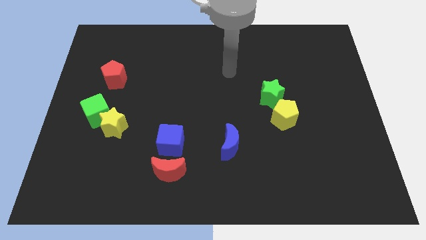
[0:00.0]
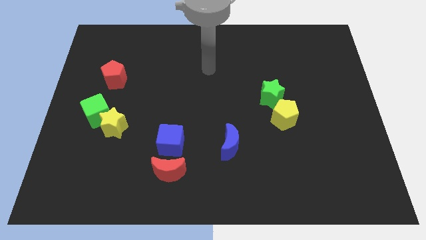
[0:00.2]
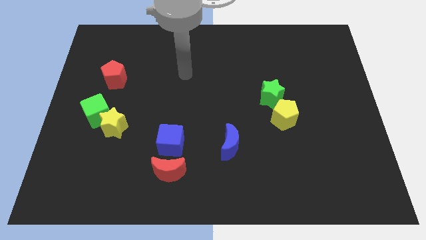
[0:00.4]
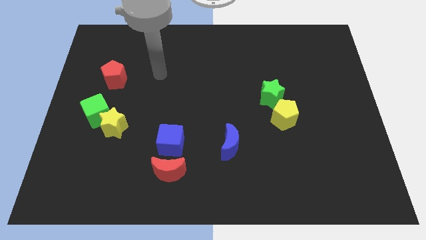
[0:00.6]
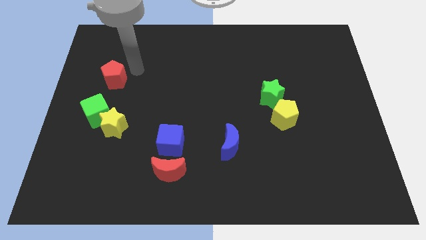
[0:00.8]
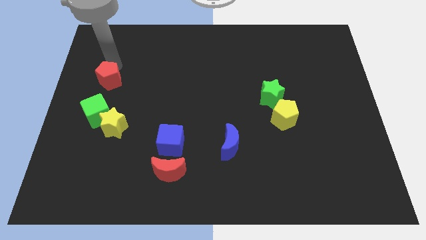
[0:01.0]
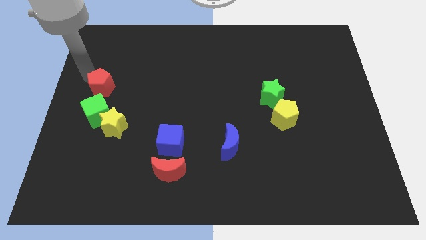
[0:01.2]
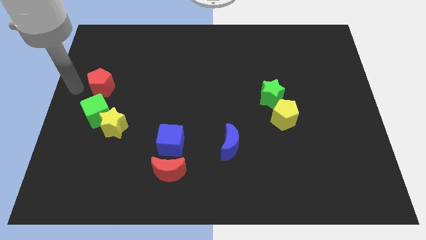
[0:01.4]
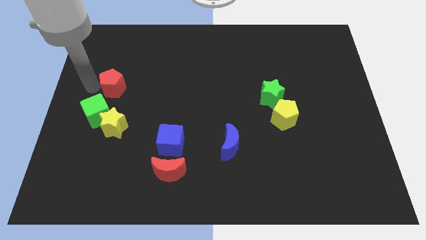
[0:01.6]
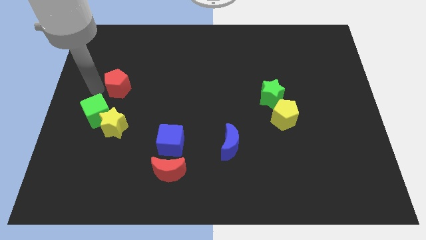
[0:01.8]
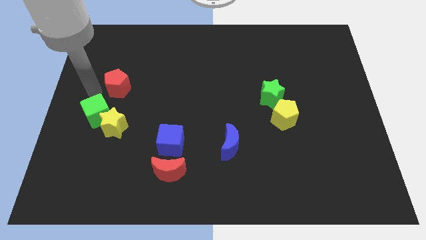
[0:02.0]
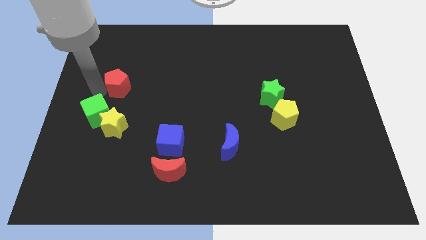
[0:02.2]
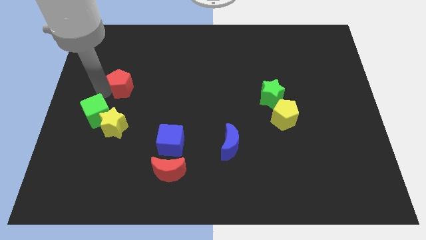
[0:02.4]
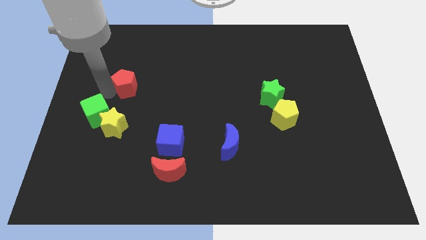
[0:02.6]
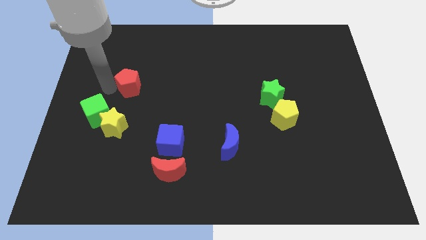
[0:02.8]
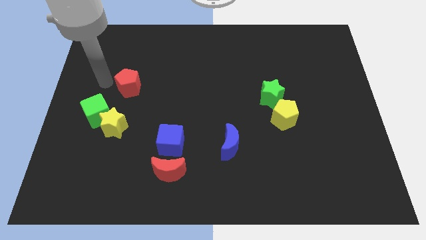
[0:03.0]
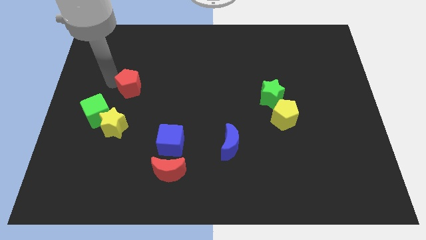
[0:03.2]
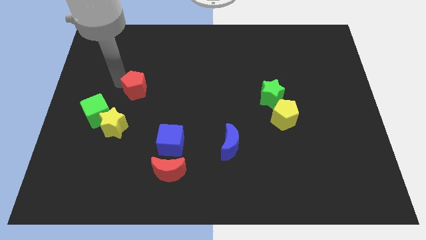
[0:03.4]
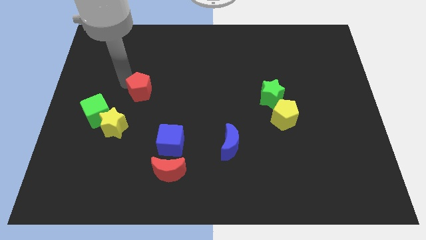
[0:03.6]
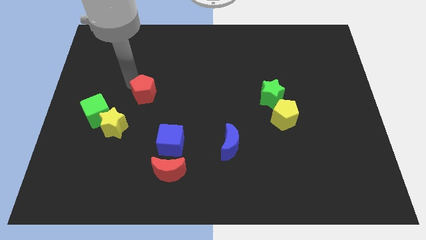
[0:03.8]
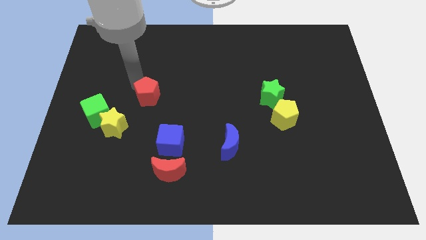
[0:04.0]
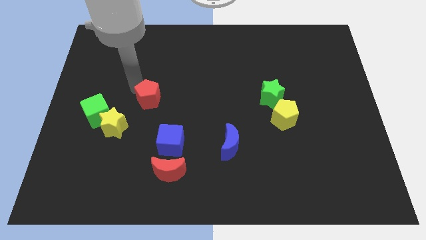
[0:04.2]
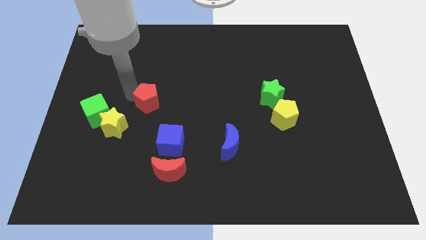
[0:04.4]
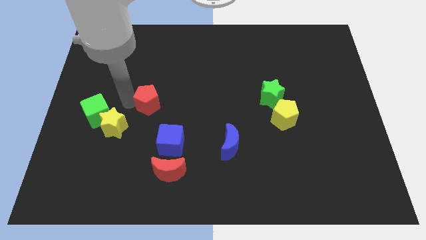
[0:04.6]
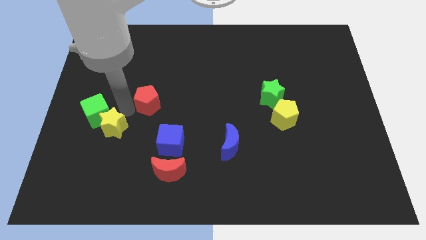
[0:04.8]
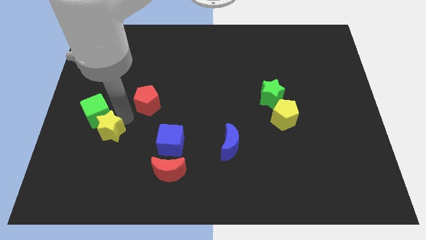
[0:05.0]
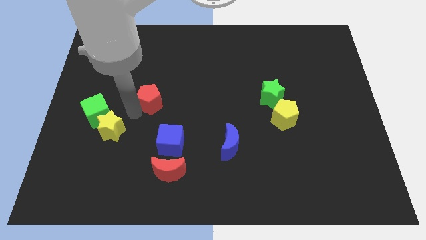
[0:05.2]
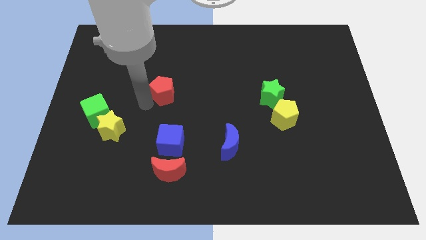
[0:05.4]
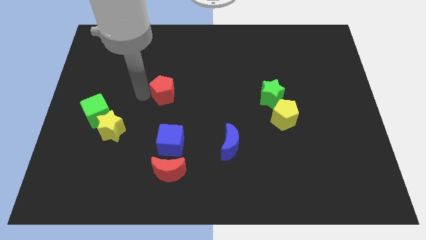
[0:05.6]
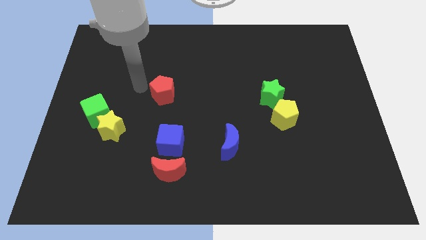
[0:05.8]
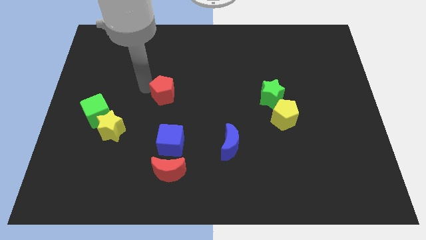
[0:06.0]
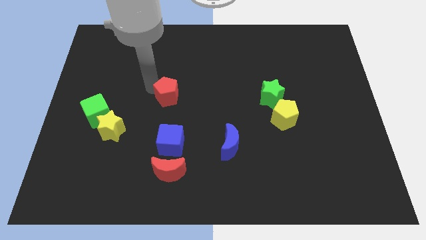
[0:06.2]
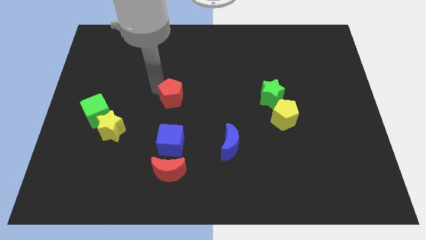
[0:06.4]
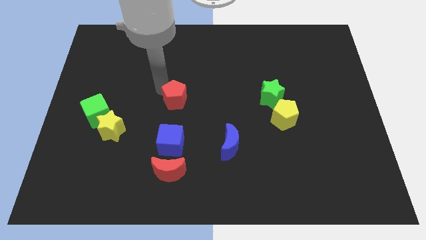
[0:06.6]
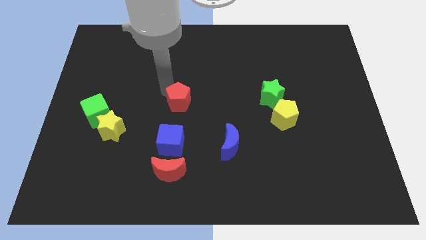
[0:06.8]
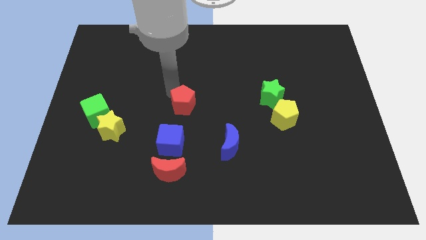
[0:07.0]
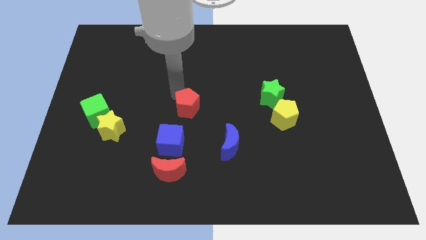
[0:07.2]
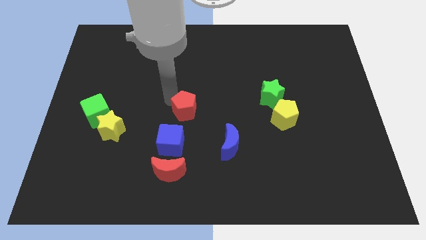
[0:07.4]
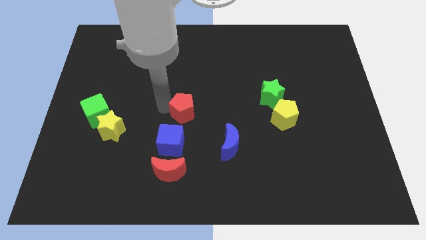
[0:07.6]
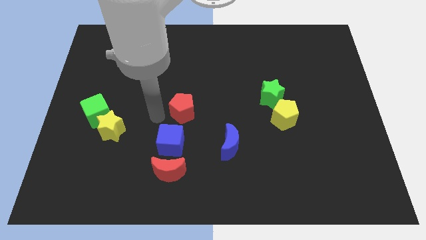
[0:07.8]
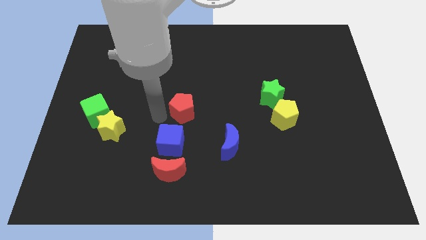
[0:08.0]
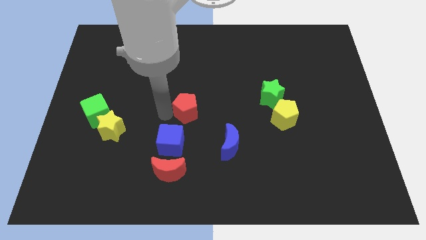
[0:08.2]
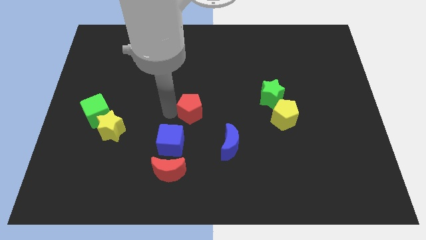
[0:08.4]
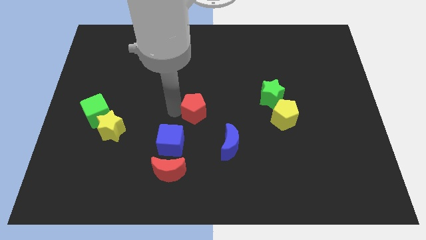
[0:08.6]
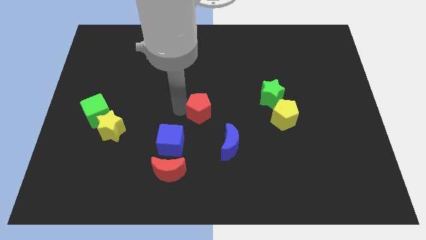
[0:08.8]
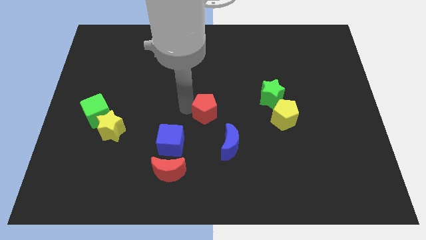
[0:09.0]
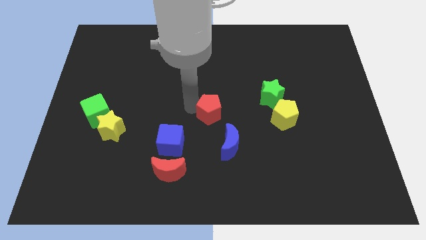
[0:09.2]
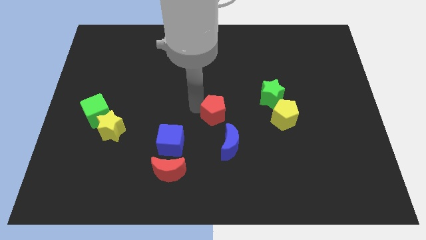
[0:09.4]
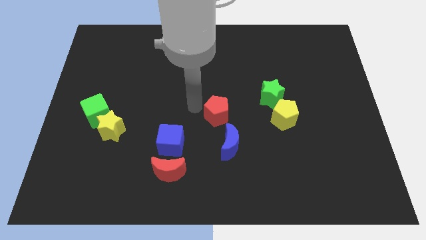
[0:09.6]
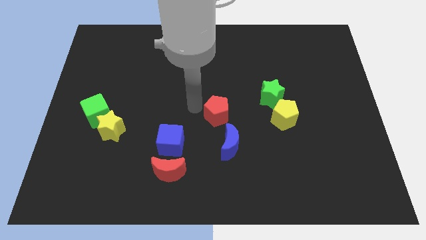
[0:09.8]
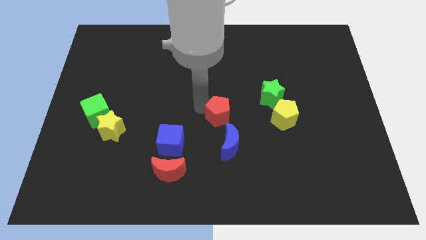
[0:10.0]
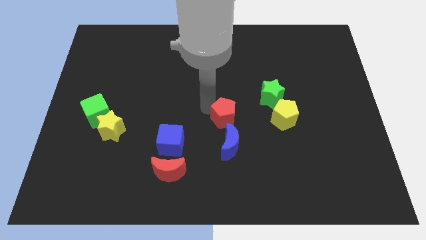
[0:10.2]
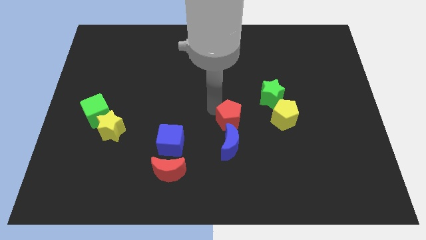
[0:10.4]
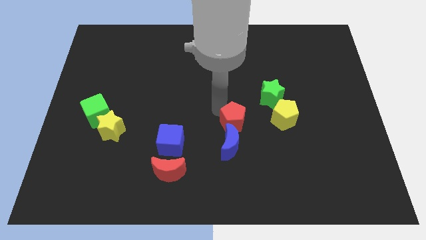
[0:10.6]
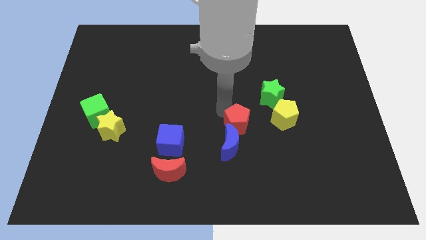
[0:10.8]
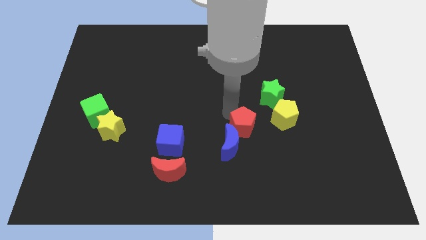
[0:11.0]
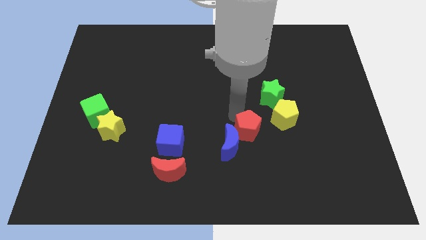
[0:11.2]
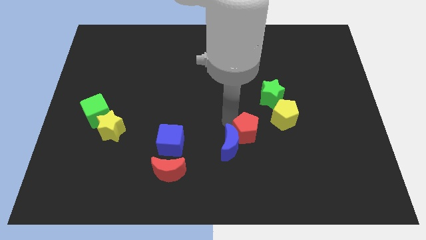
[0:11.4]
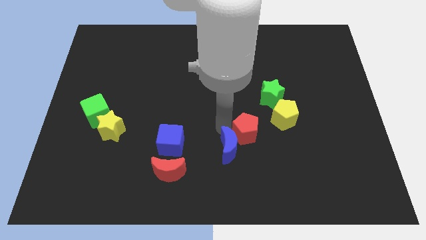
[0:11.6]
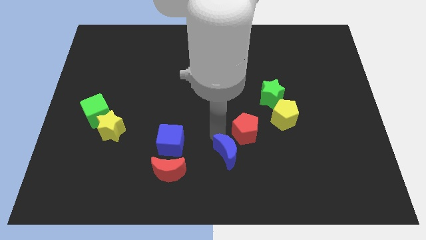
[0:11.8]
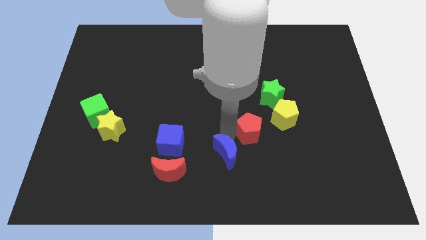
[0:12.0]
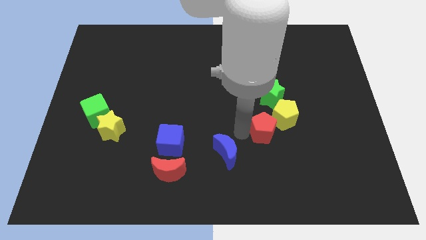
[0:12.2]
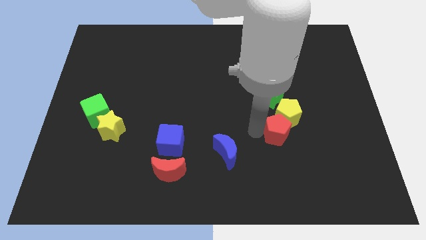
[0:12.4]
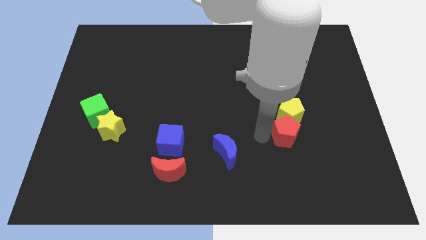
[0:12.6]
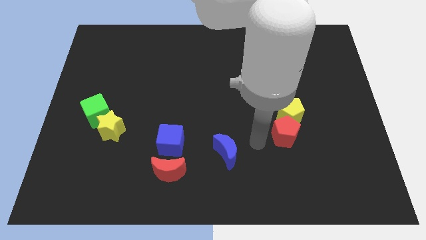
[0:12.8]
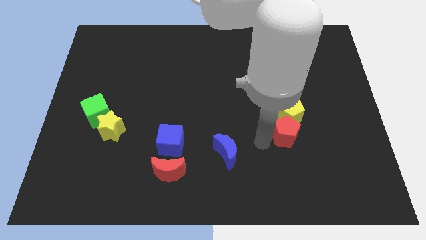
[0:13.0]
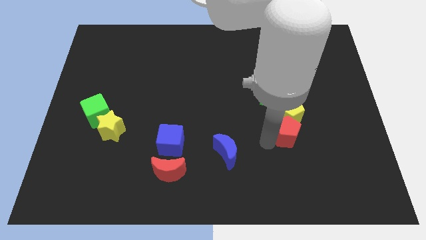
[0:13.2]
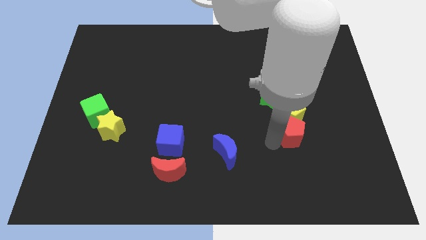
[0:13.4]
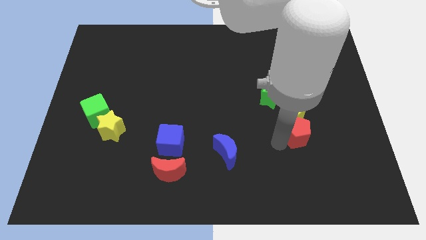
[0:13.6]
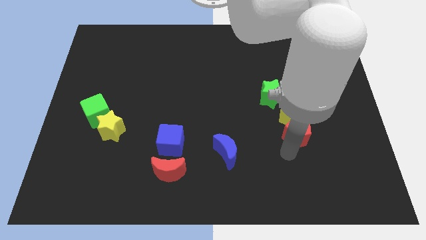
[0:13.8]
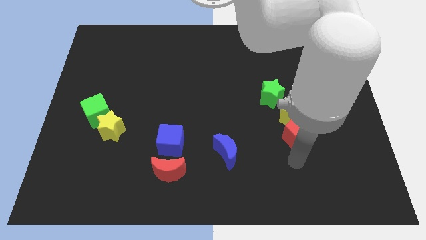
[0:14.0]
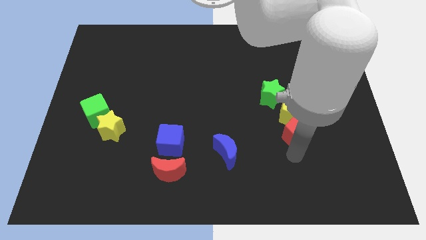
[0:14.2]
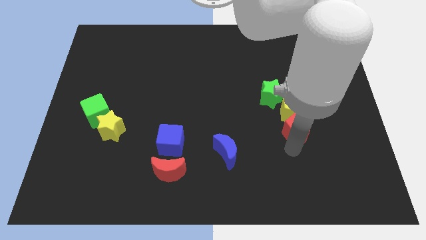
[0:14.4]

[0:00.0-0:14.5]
put the red pentagon to the bottom right of the green star
